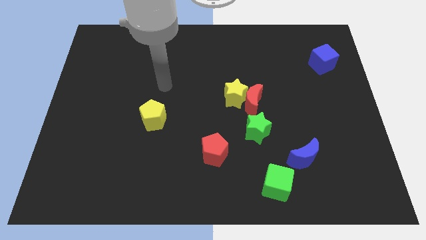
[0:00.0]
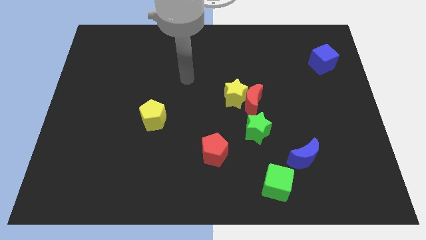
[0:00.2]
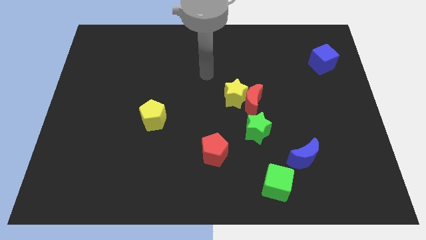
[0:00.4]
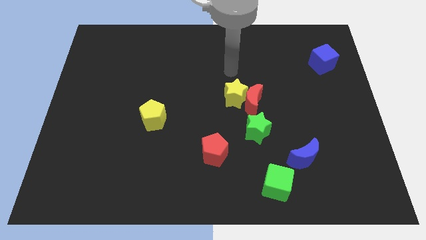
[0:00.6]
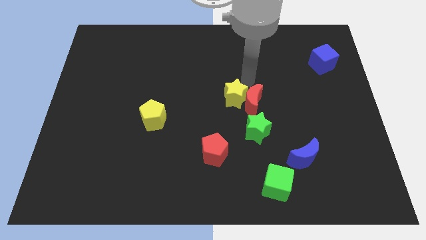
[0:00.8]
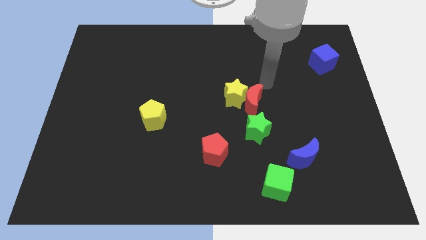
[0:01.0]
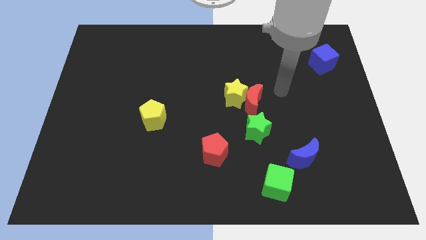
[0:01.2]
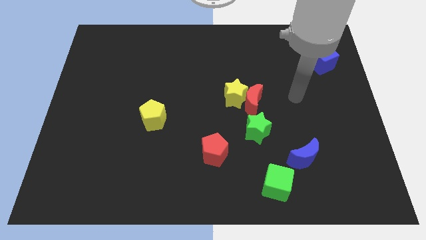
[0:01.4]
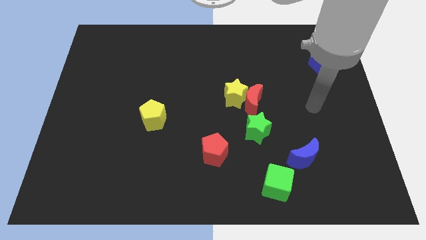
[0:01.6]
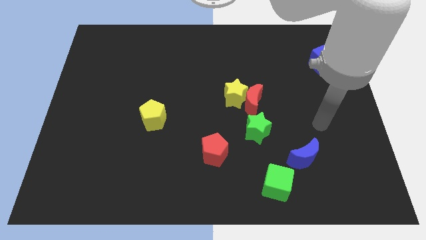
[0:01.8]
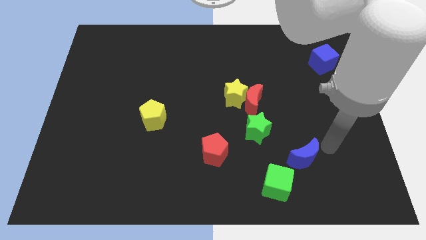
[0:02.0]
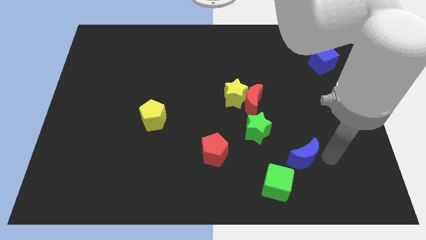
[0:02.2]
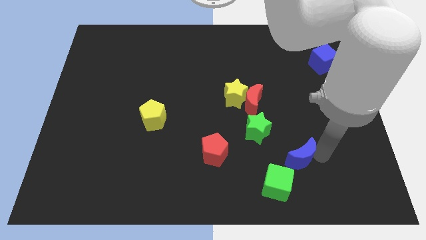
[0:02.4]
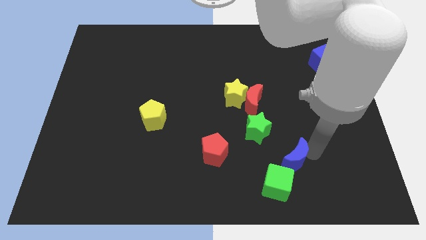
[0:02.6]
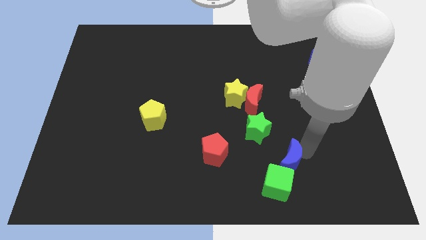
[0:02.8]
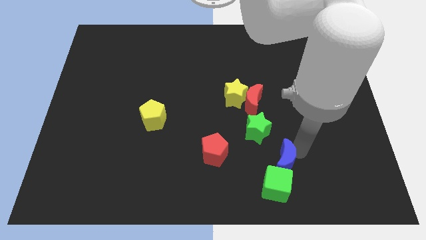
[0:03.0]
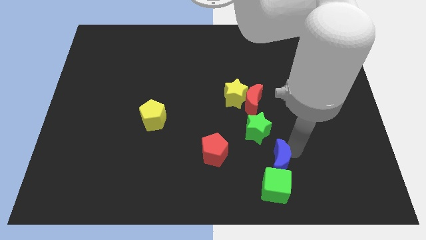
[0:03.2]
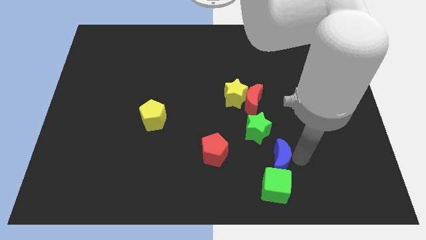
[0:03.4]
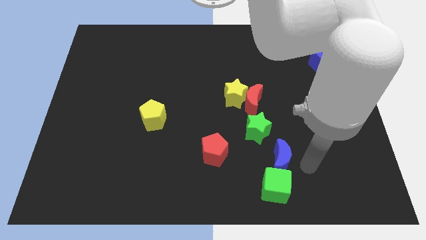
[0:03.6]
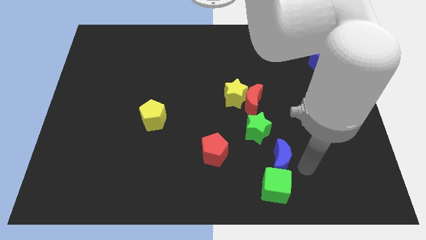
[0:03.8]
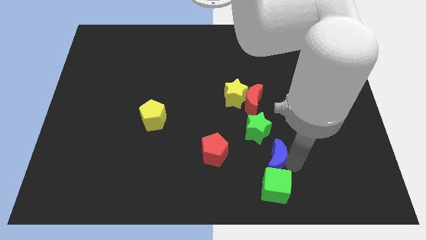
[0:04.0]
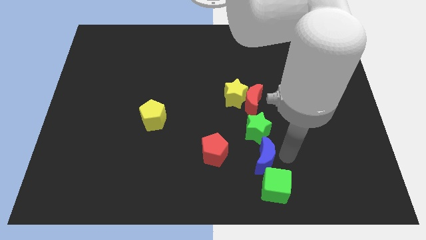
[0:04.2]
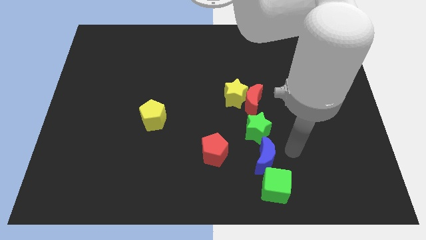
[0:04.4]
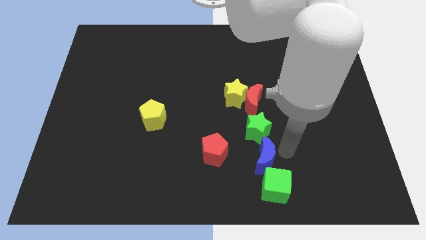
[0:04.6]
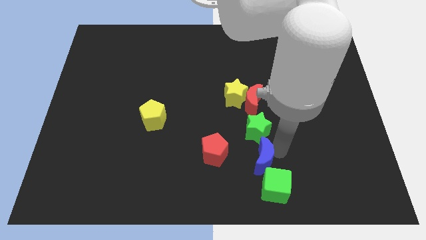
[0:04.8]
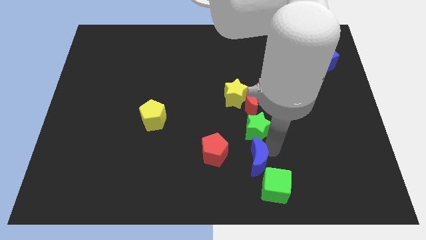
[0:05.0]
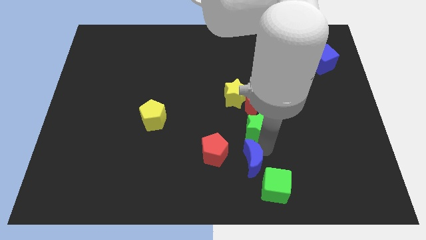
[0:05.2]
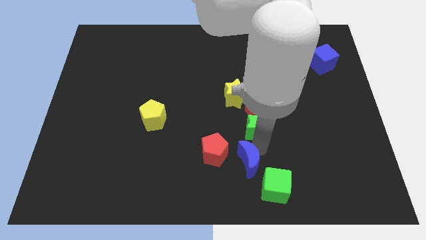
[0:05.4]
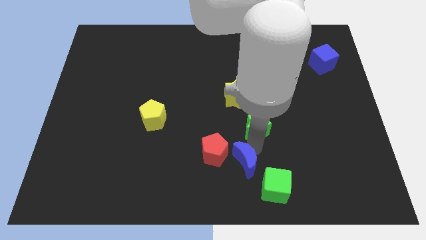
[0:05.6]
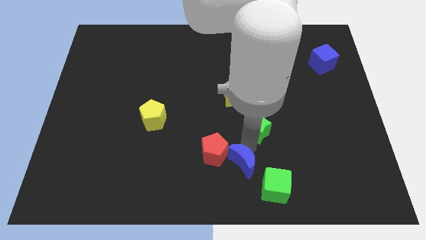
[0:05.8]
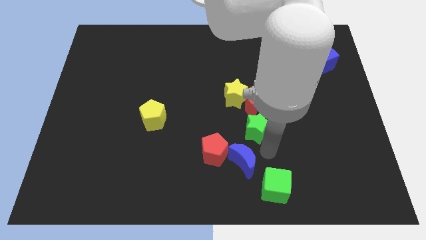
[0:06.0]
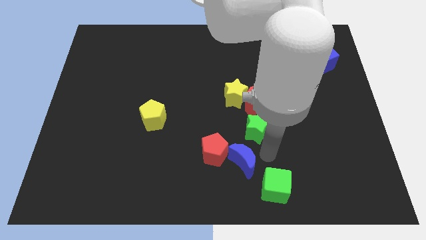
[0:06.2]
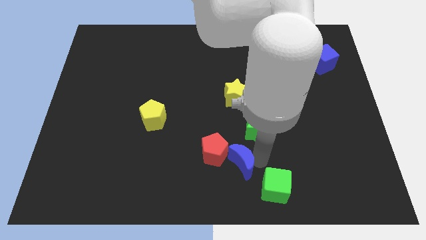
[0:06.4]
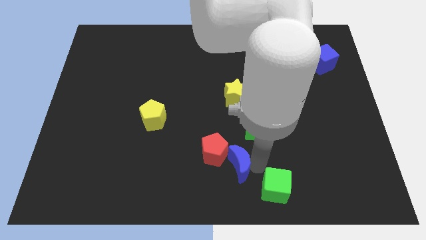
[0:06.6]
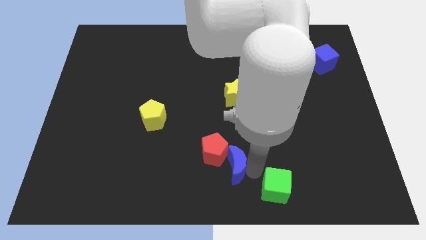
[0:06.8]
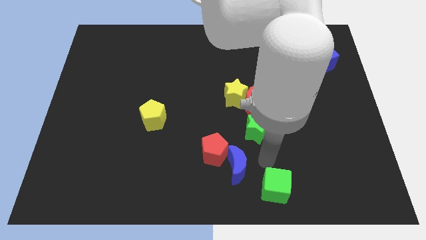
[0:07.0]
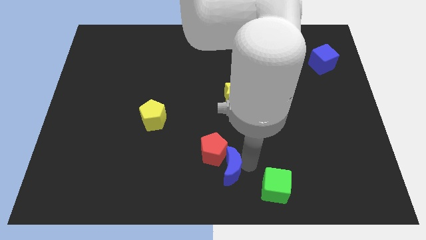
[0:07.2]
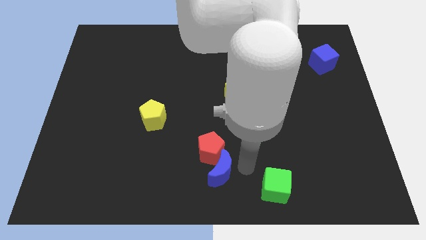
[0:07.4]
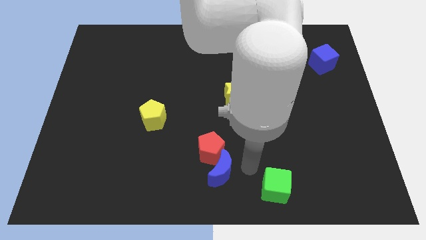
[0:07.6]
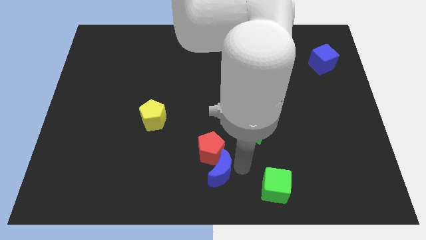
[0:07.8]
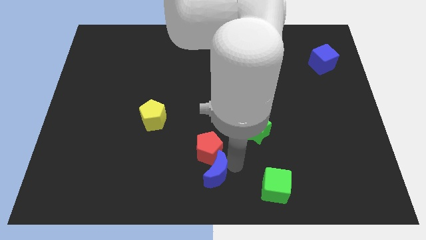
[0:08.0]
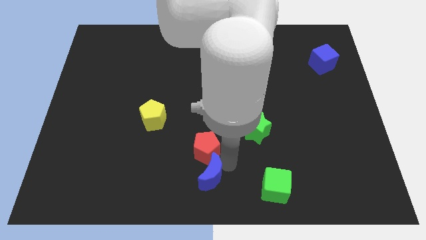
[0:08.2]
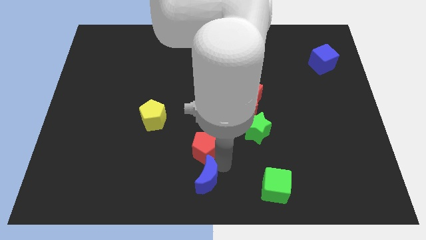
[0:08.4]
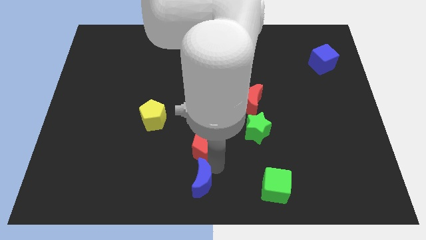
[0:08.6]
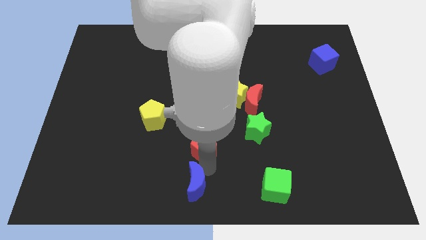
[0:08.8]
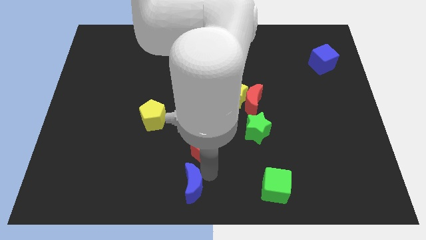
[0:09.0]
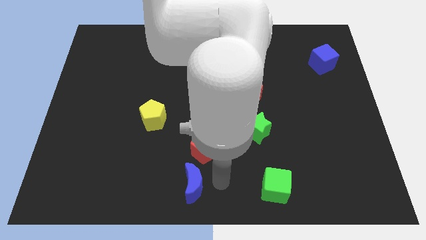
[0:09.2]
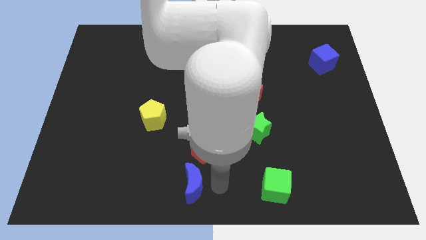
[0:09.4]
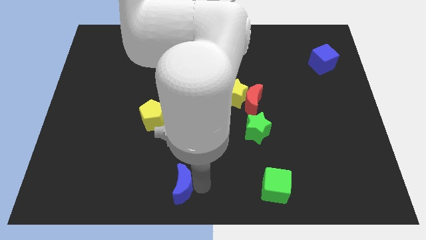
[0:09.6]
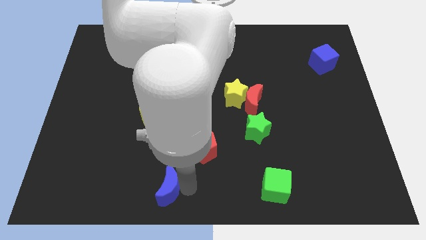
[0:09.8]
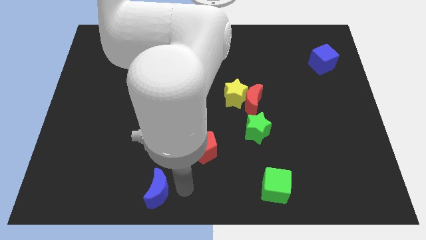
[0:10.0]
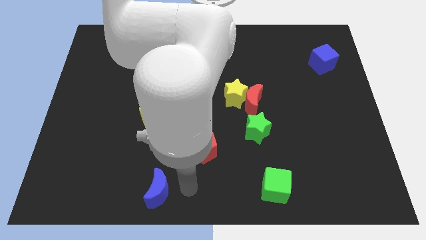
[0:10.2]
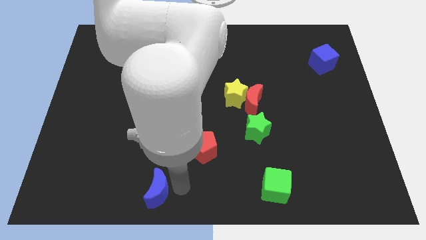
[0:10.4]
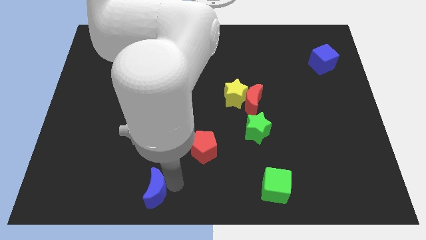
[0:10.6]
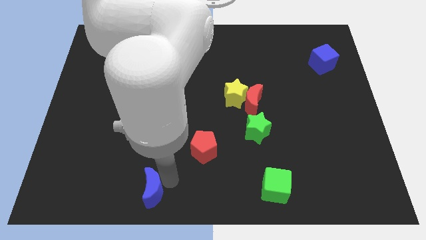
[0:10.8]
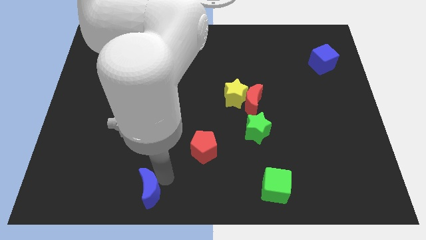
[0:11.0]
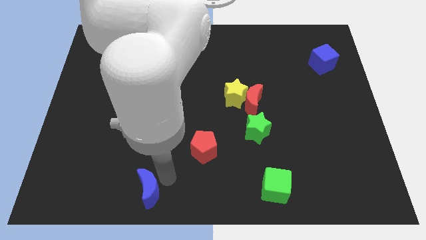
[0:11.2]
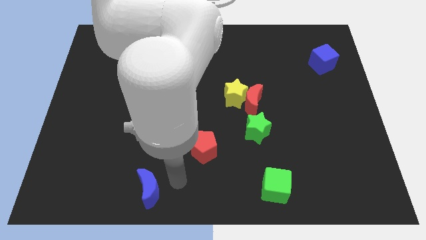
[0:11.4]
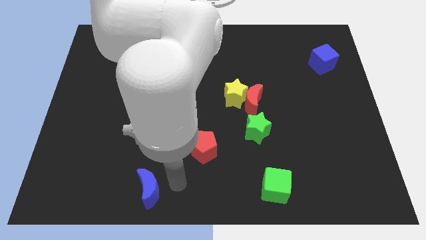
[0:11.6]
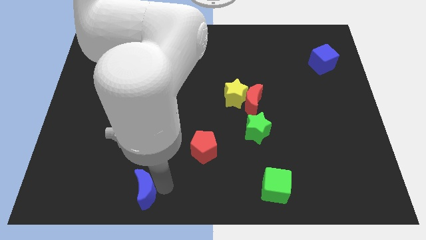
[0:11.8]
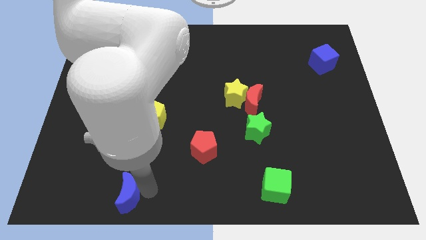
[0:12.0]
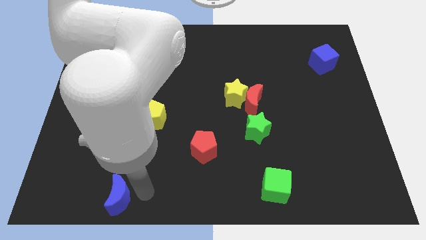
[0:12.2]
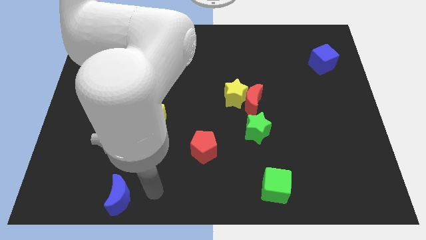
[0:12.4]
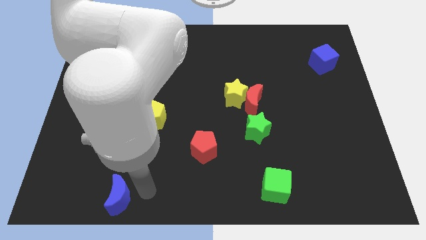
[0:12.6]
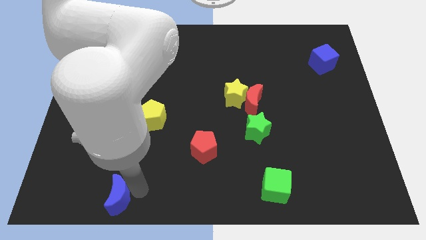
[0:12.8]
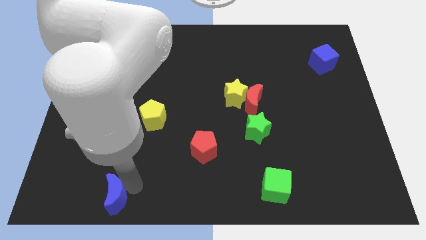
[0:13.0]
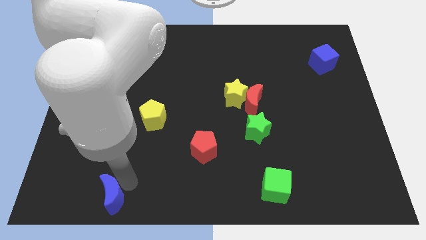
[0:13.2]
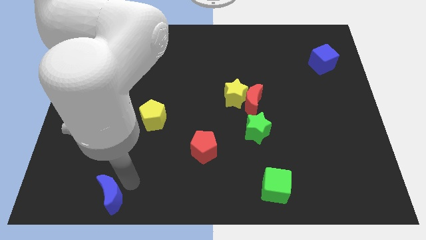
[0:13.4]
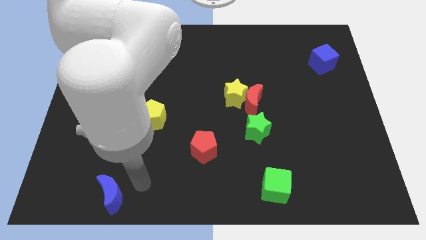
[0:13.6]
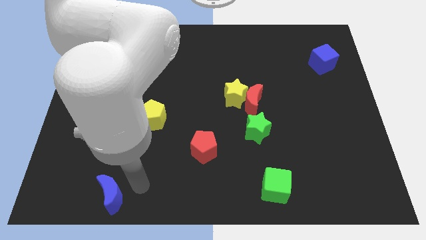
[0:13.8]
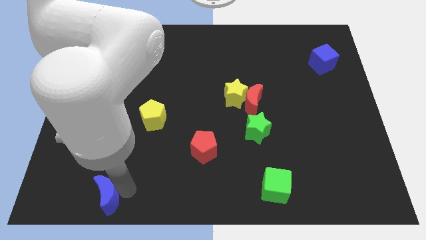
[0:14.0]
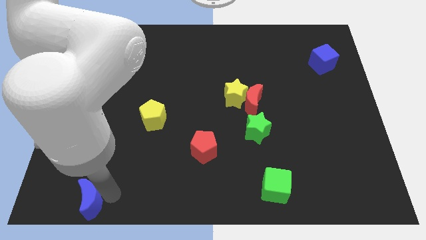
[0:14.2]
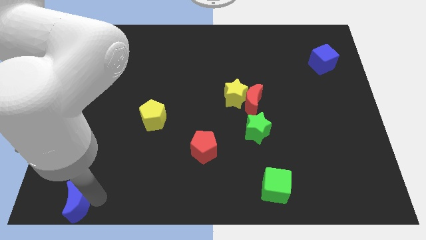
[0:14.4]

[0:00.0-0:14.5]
put the blue moon to the lower left corner
